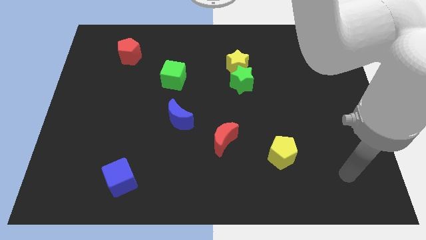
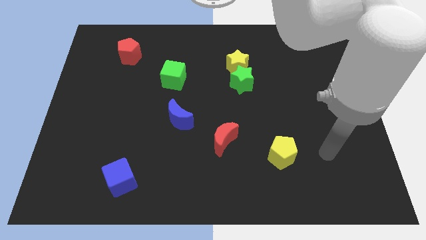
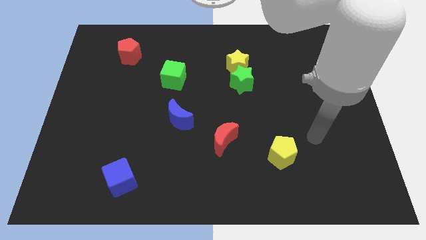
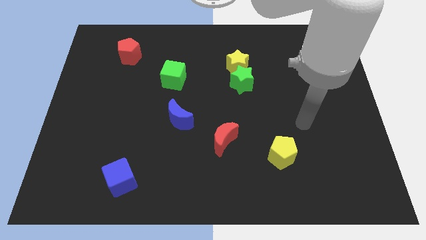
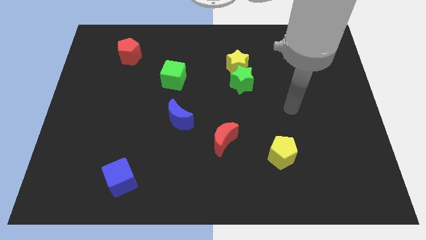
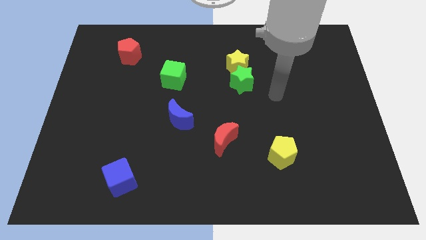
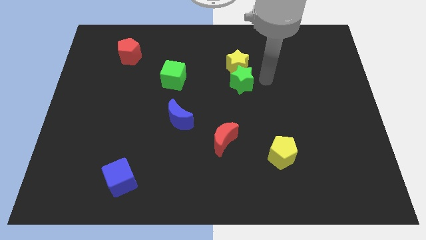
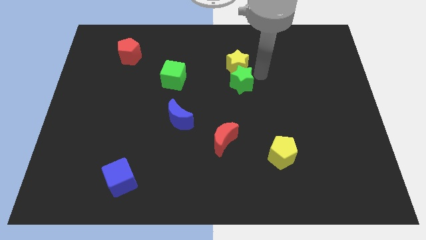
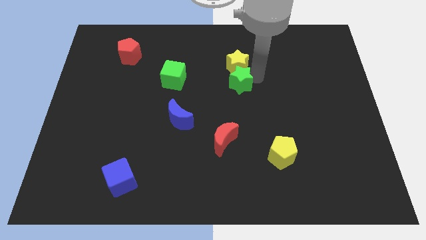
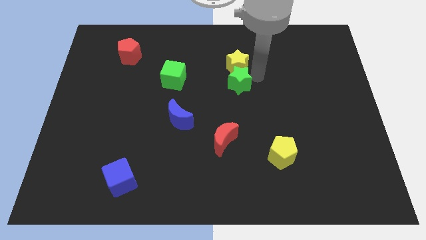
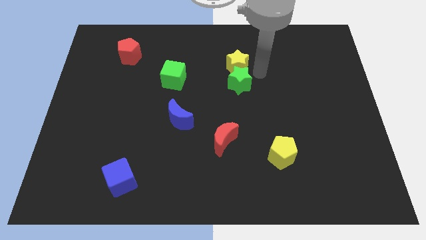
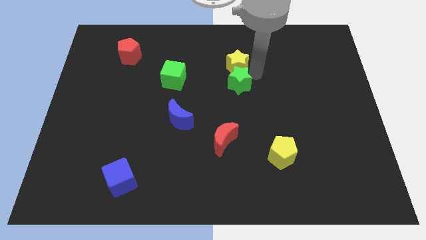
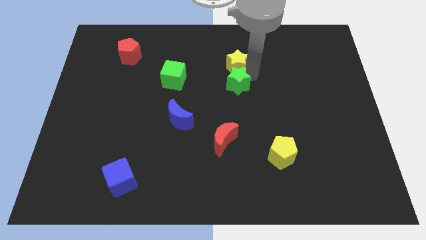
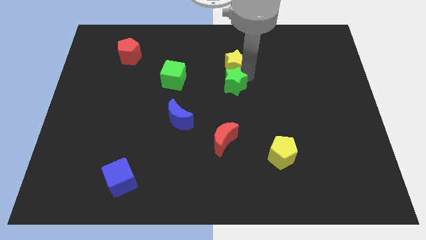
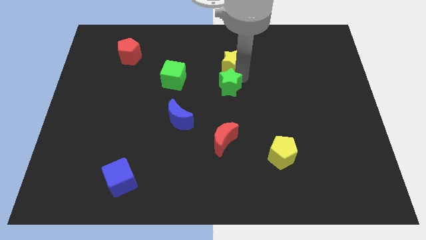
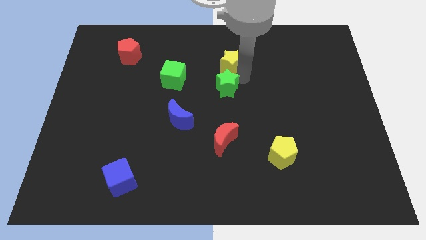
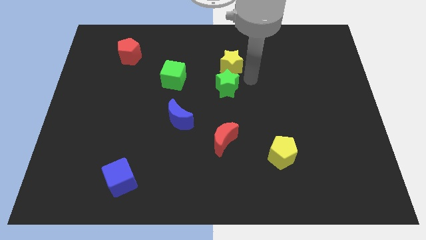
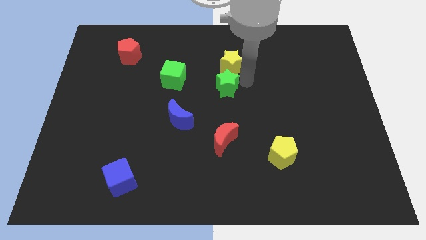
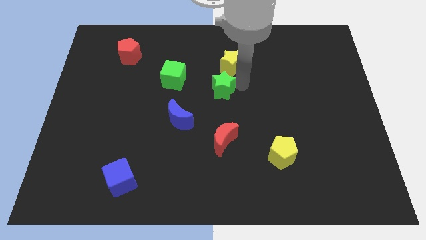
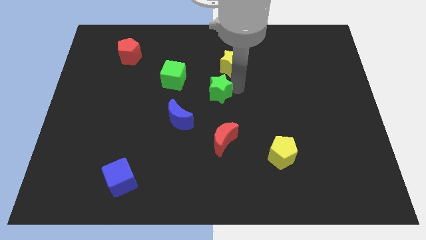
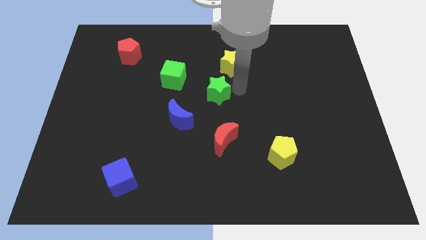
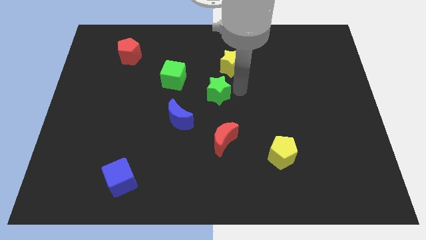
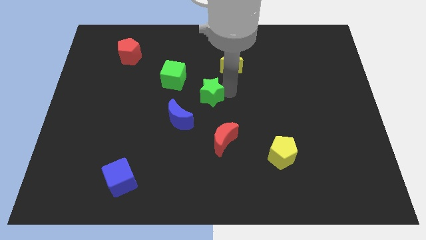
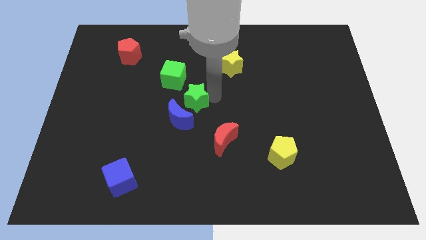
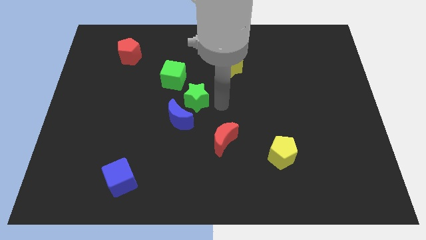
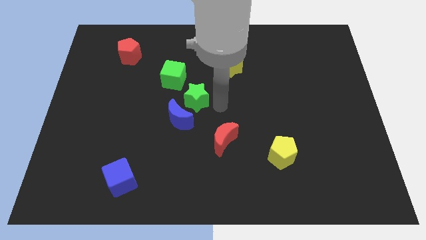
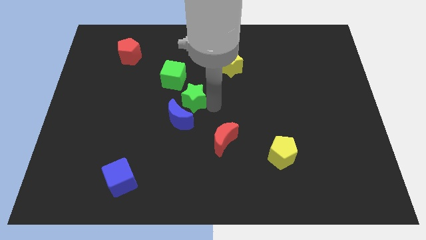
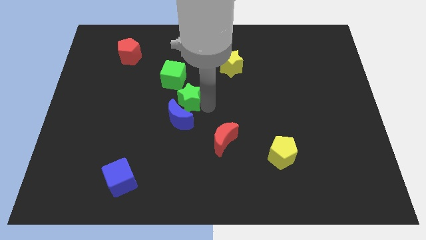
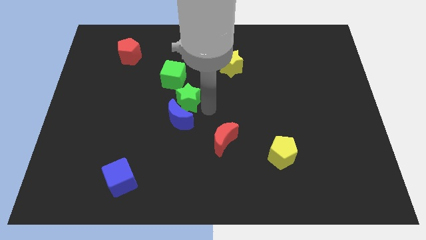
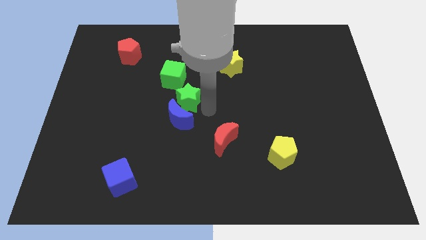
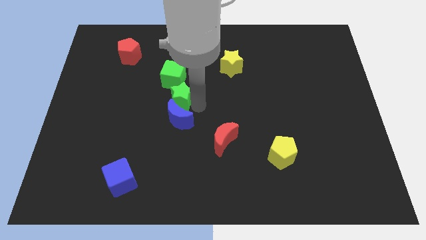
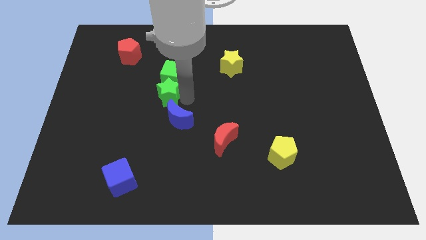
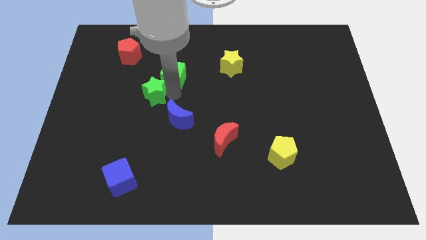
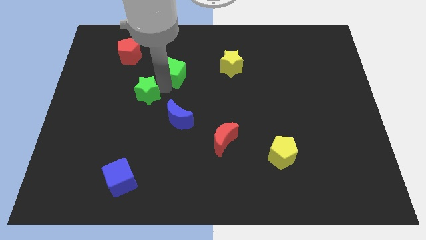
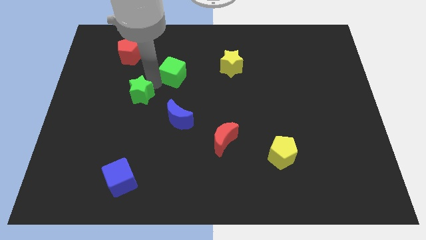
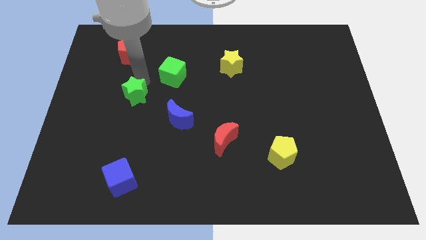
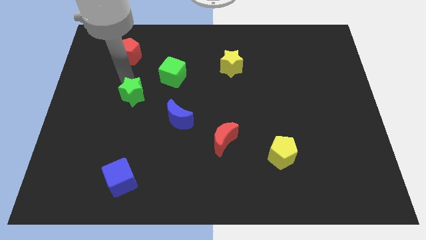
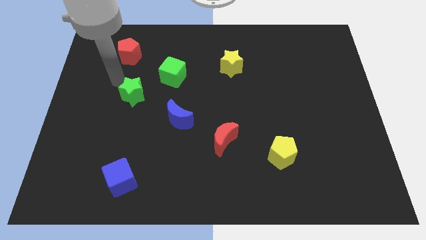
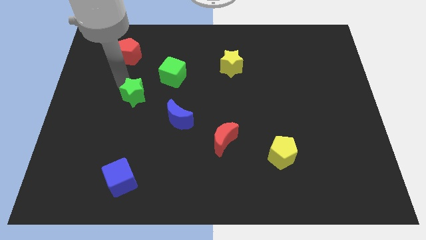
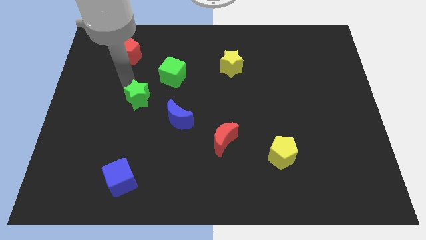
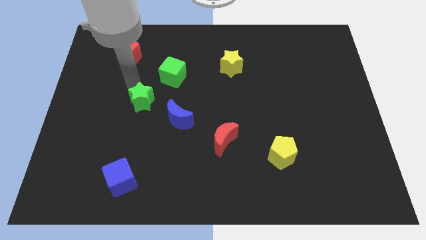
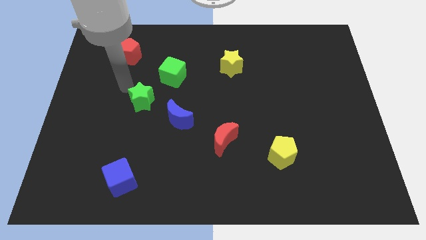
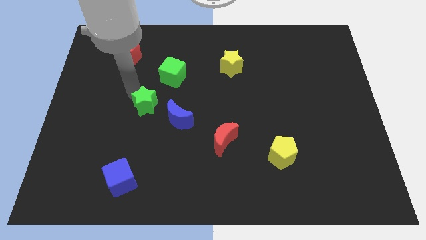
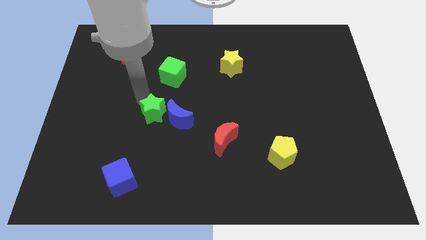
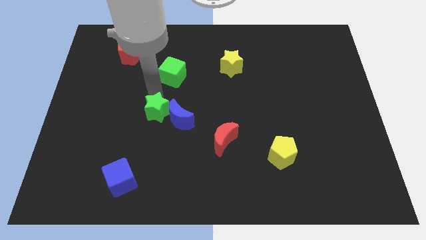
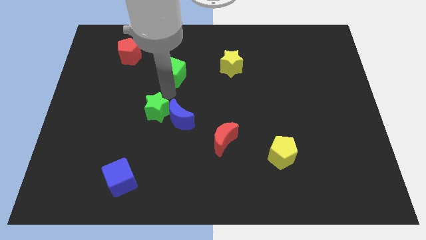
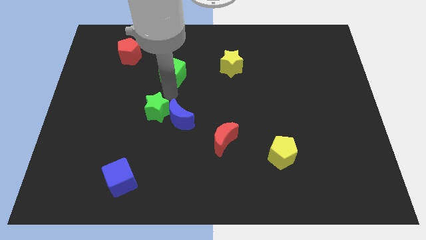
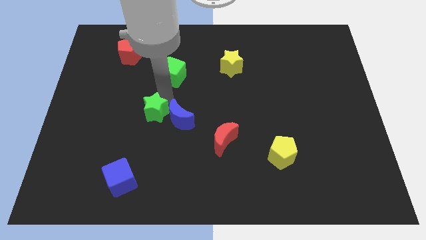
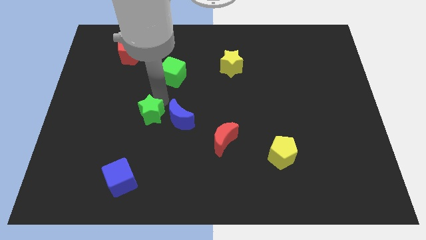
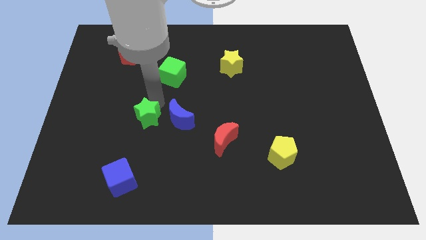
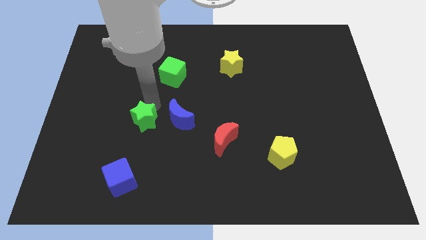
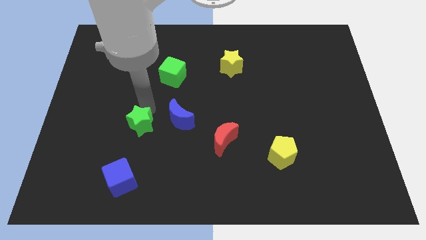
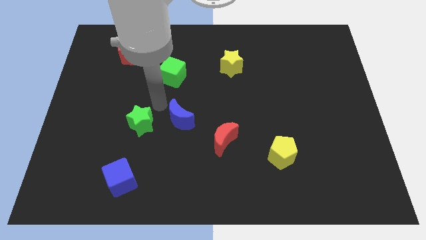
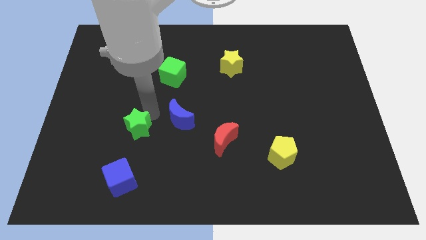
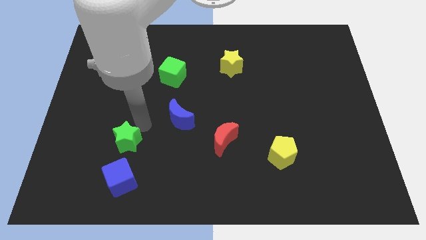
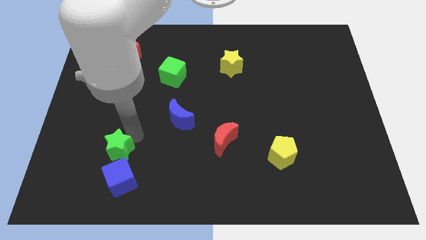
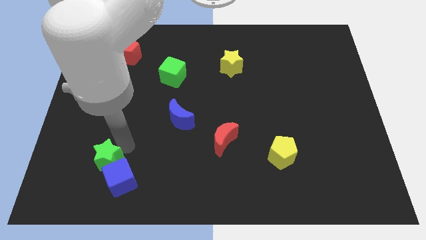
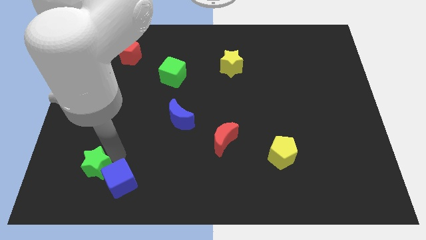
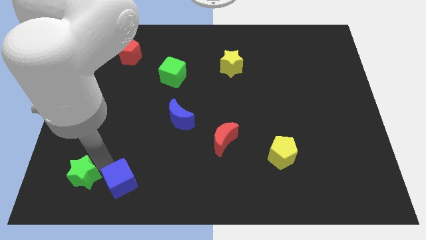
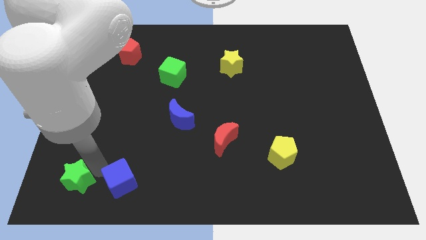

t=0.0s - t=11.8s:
push the green star to the lower left corner
